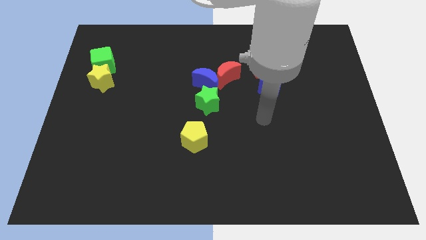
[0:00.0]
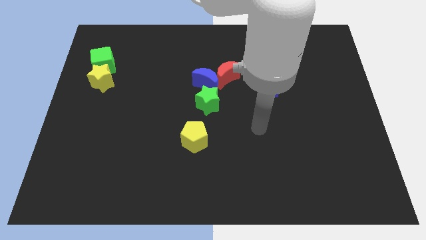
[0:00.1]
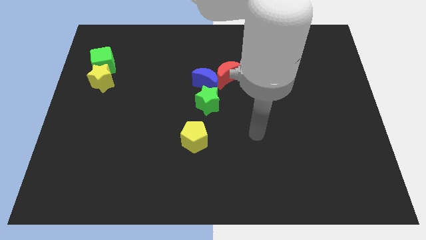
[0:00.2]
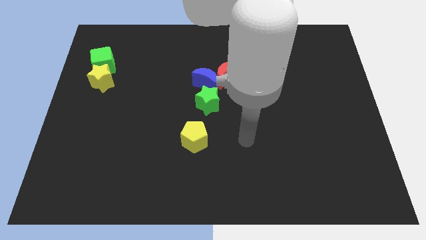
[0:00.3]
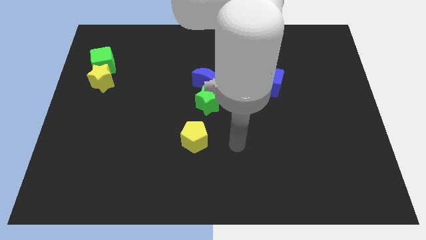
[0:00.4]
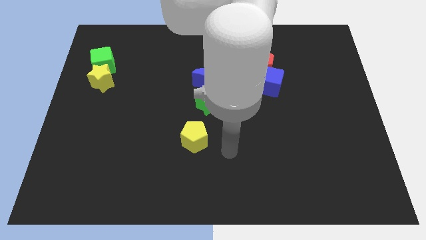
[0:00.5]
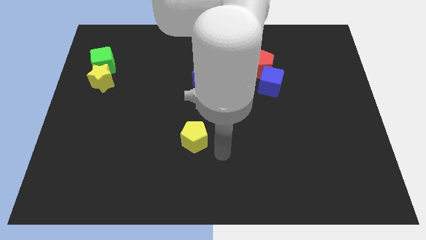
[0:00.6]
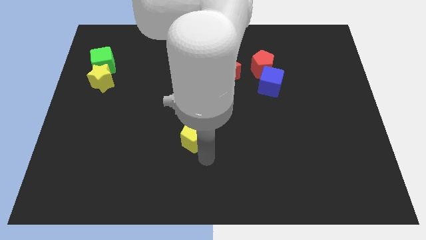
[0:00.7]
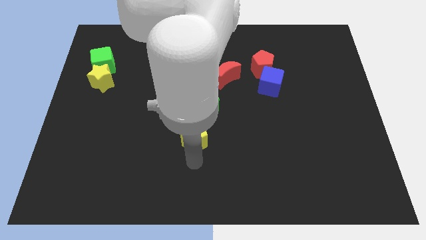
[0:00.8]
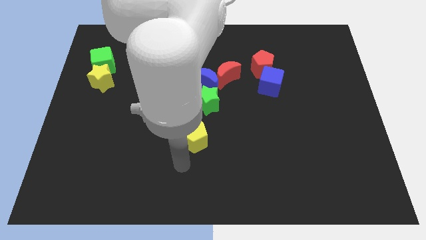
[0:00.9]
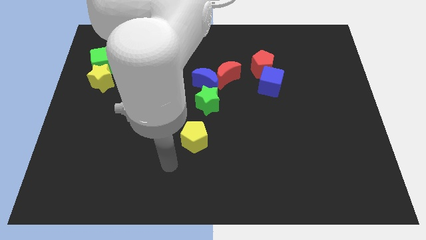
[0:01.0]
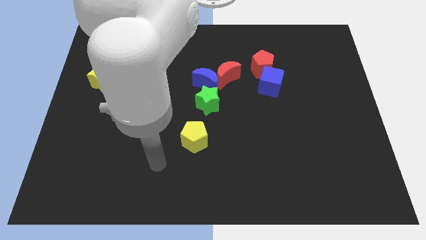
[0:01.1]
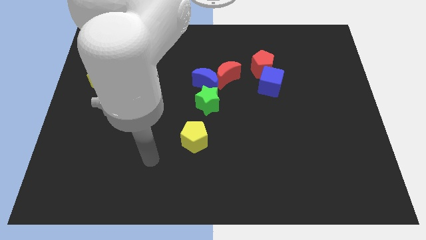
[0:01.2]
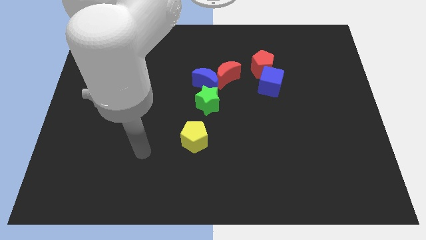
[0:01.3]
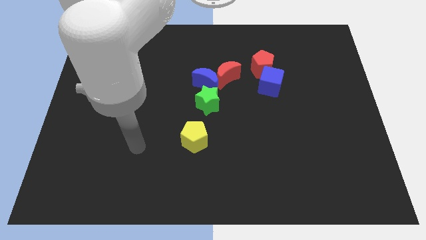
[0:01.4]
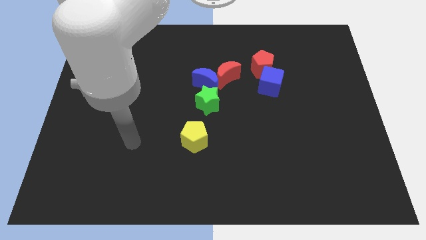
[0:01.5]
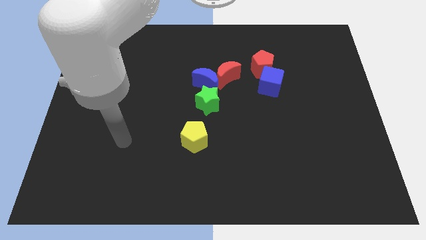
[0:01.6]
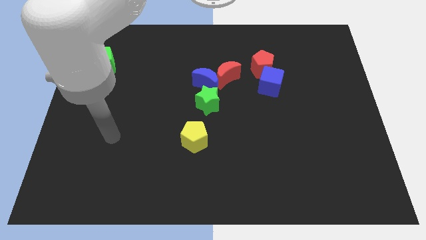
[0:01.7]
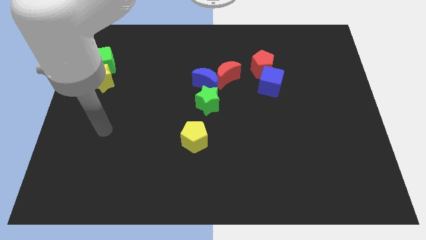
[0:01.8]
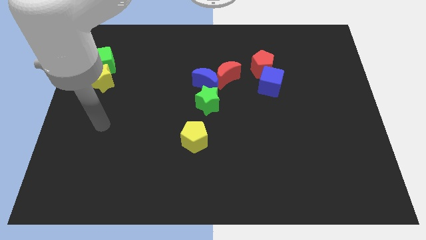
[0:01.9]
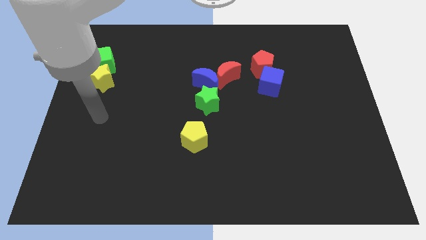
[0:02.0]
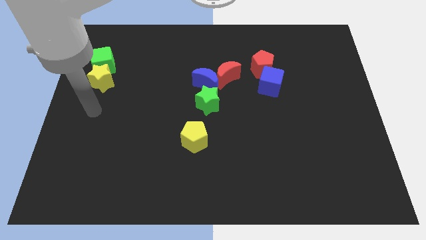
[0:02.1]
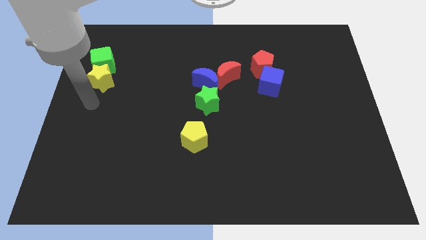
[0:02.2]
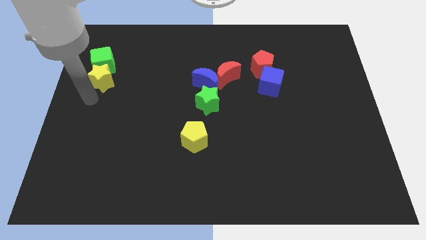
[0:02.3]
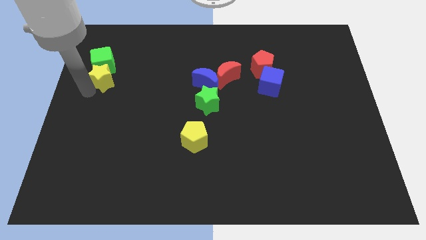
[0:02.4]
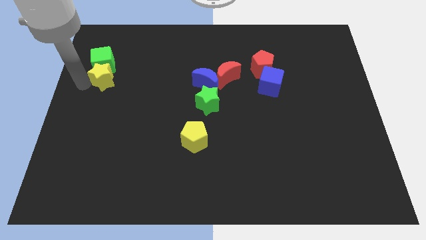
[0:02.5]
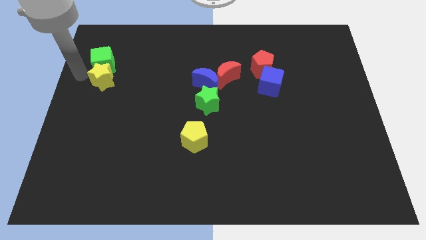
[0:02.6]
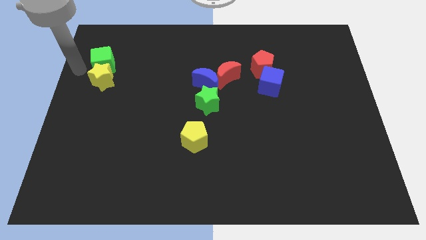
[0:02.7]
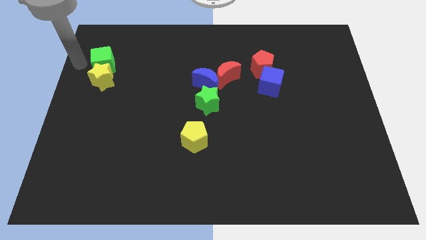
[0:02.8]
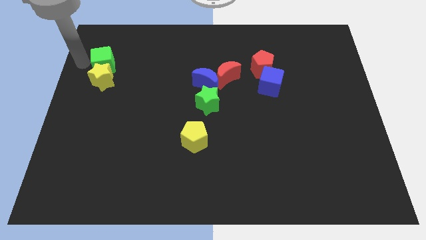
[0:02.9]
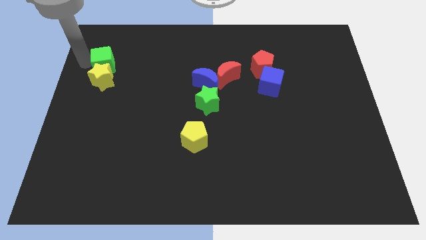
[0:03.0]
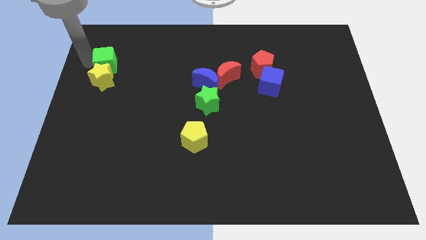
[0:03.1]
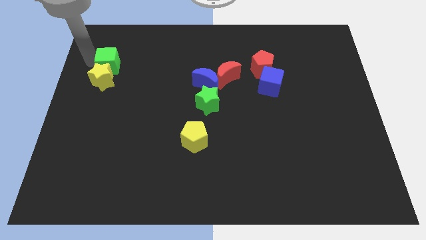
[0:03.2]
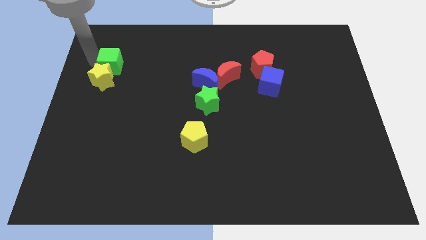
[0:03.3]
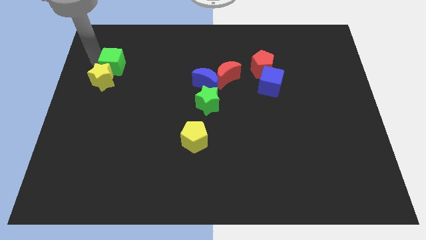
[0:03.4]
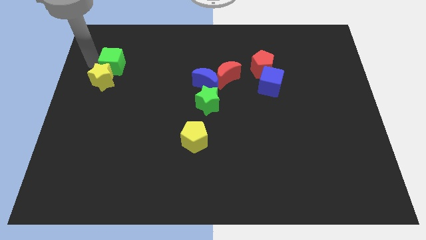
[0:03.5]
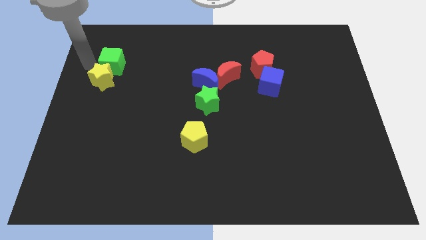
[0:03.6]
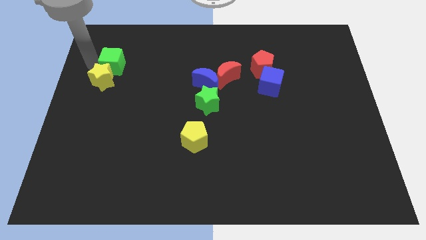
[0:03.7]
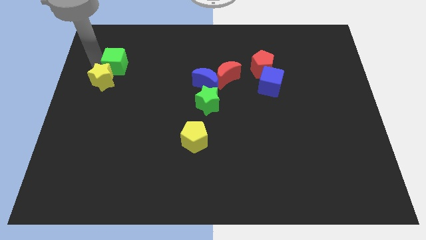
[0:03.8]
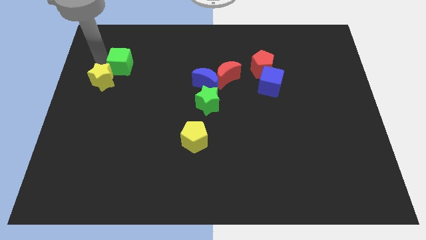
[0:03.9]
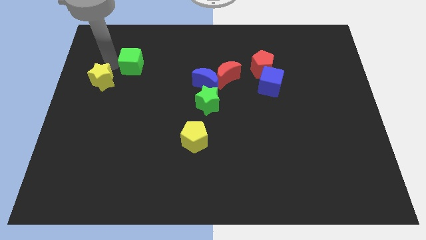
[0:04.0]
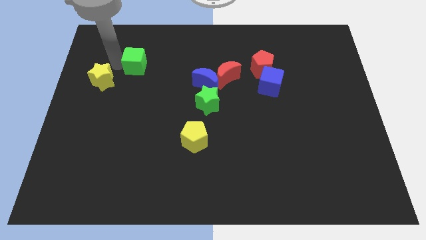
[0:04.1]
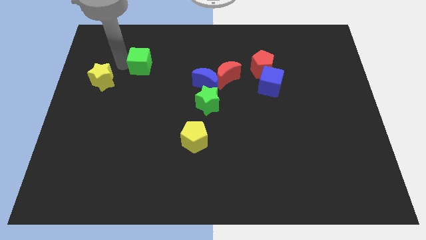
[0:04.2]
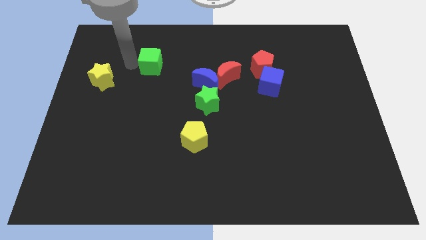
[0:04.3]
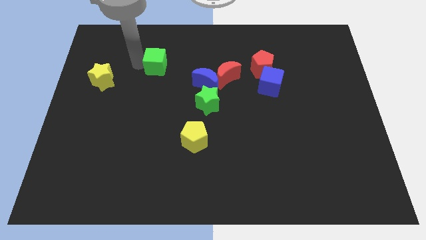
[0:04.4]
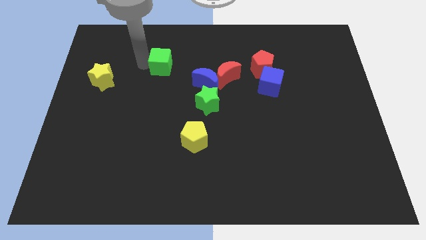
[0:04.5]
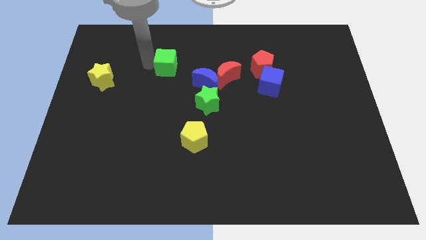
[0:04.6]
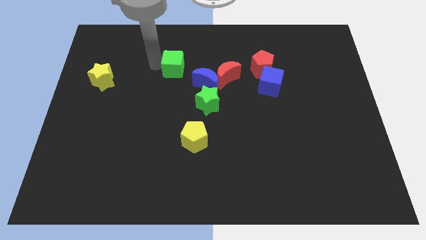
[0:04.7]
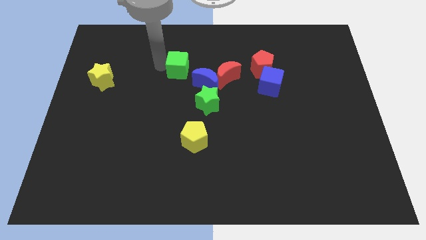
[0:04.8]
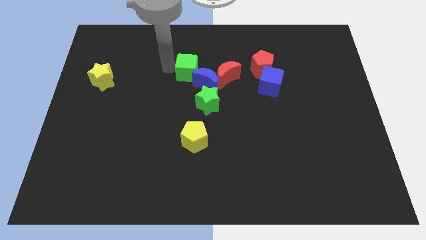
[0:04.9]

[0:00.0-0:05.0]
slide the green cube to the right

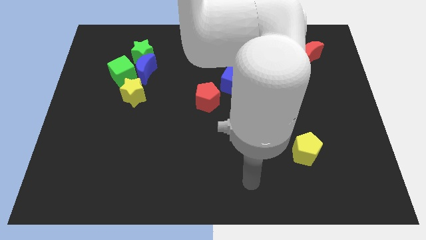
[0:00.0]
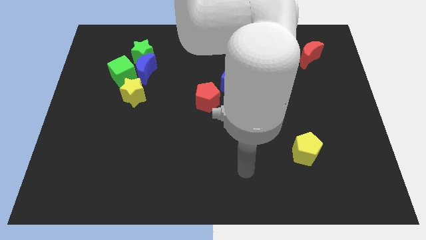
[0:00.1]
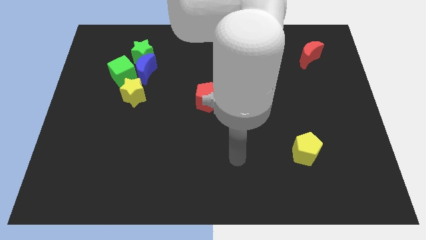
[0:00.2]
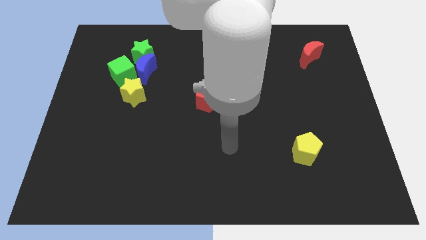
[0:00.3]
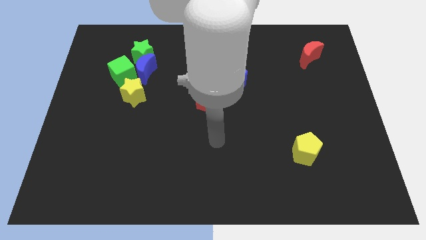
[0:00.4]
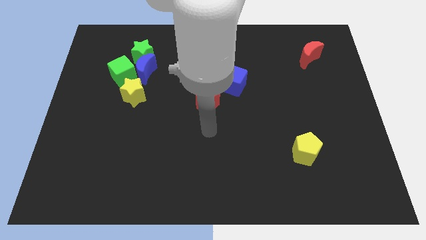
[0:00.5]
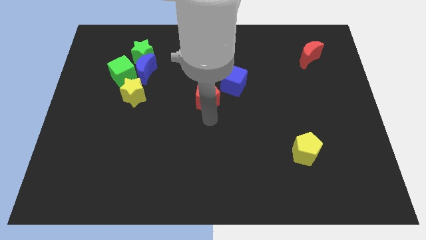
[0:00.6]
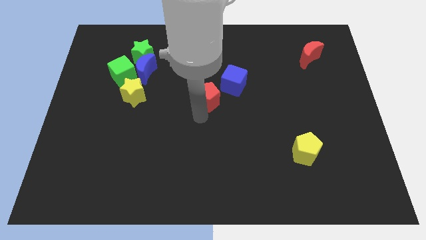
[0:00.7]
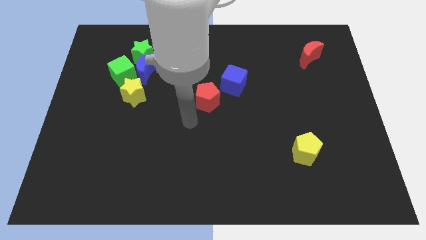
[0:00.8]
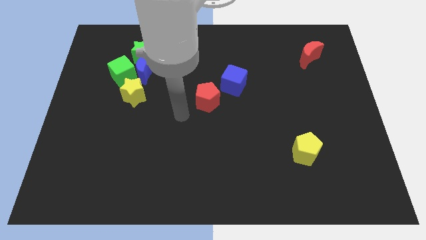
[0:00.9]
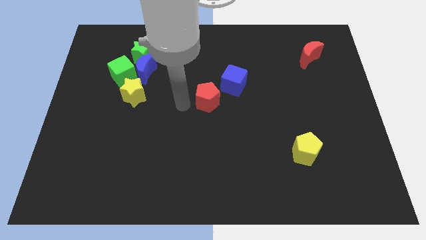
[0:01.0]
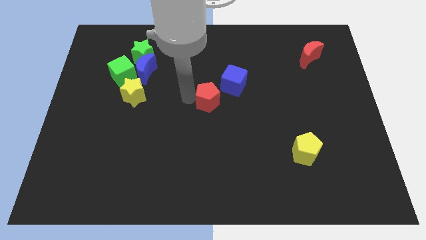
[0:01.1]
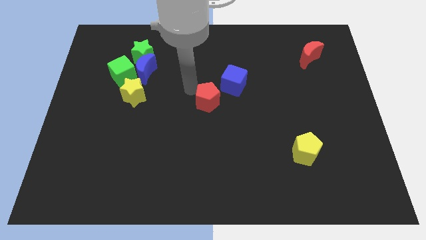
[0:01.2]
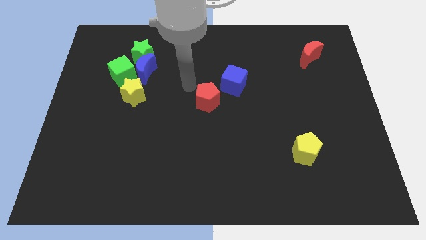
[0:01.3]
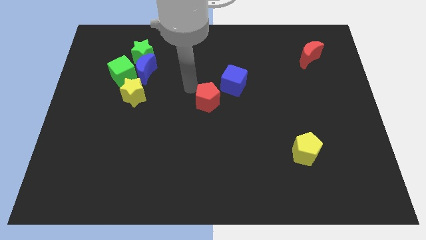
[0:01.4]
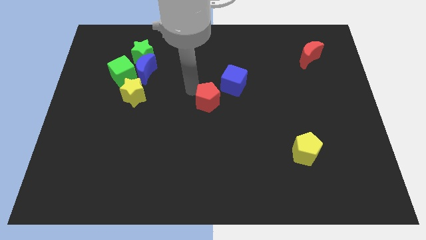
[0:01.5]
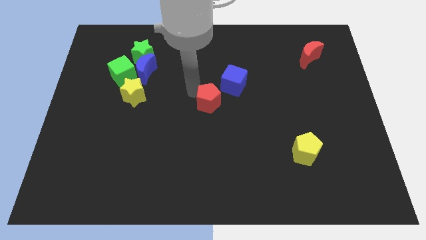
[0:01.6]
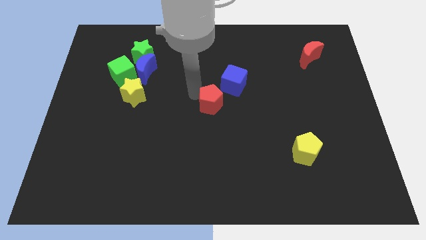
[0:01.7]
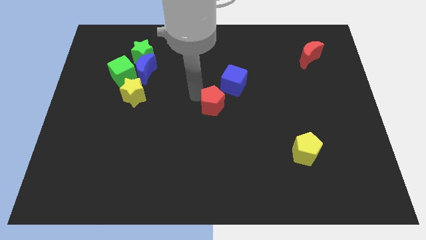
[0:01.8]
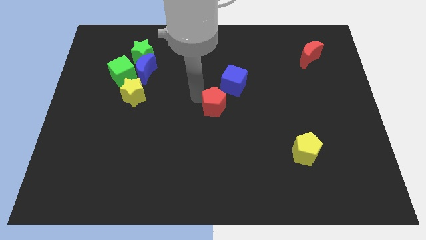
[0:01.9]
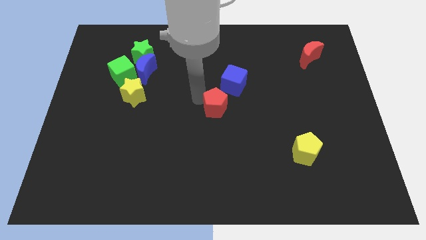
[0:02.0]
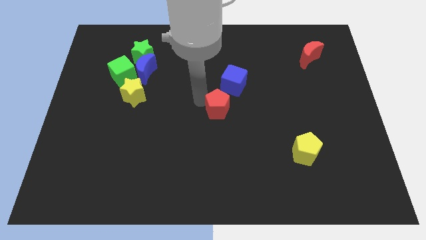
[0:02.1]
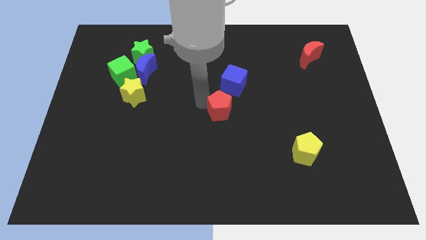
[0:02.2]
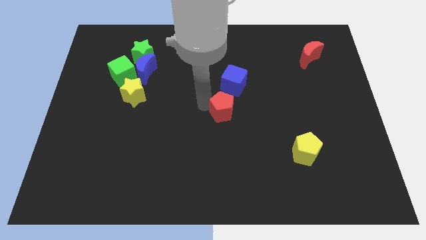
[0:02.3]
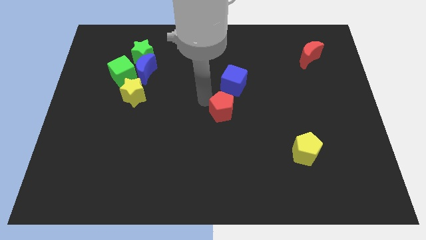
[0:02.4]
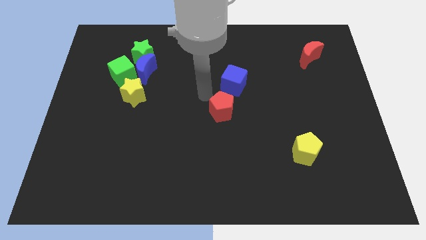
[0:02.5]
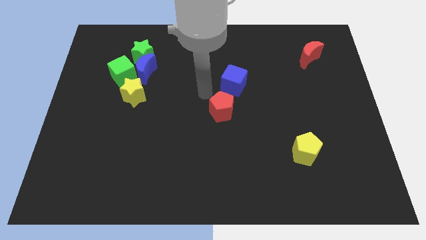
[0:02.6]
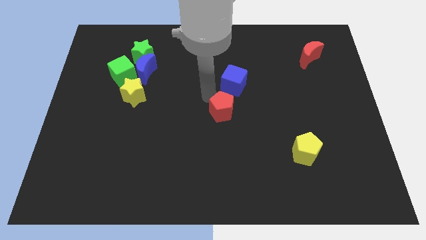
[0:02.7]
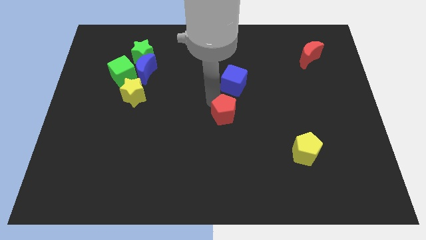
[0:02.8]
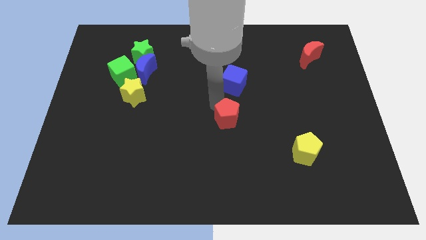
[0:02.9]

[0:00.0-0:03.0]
push the red pentagon a bit downwards and to the right

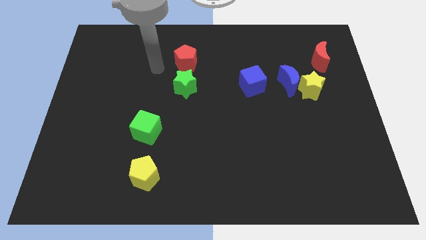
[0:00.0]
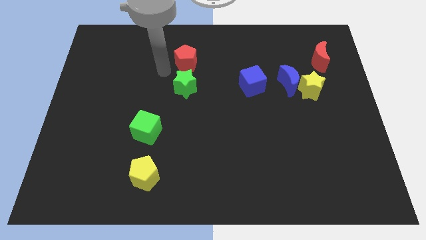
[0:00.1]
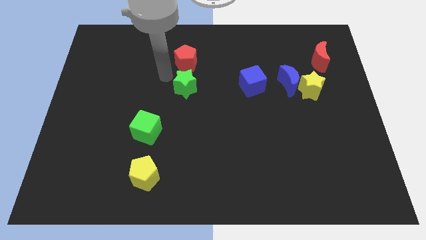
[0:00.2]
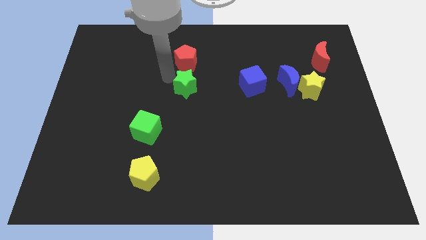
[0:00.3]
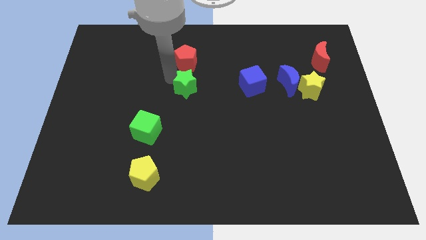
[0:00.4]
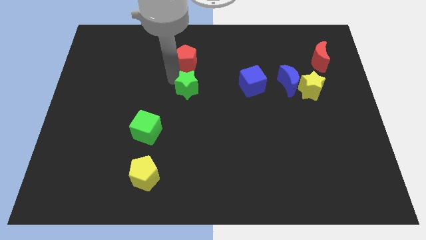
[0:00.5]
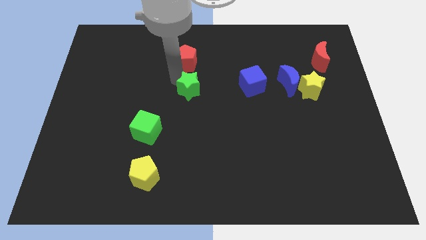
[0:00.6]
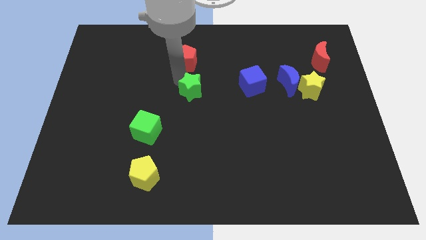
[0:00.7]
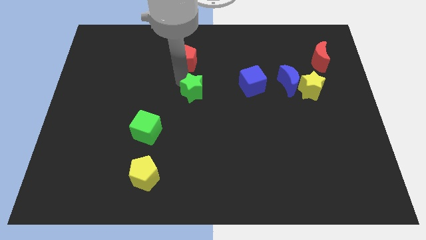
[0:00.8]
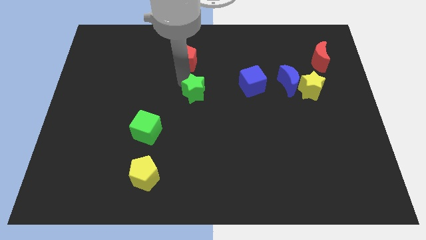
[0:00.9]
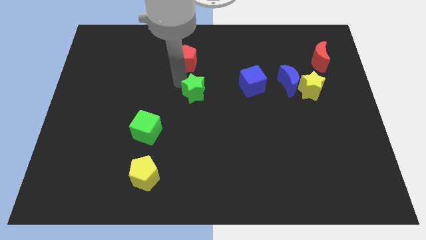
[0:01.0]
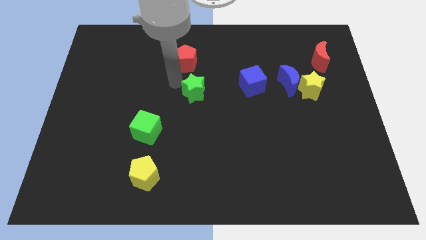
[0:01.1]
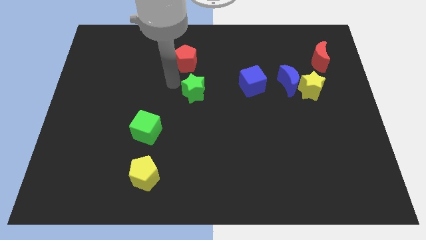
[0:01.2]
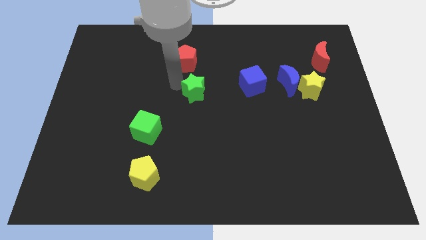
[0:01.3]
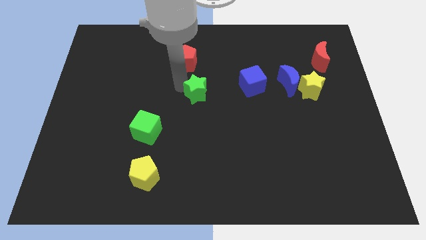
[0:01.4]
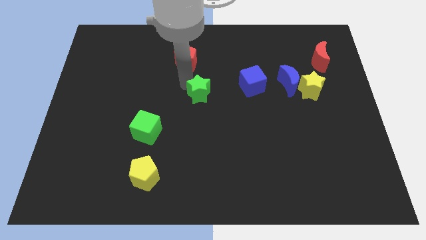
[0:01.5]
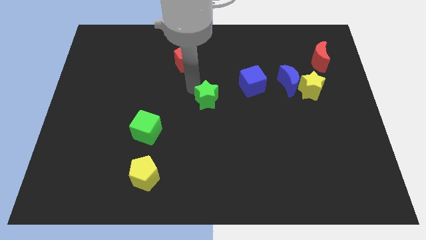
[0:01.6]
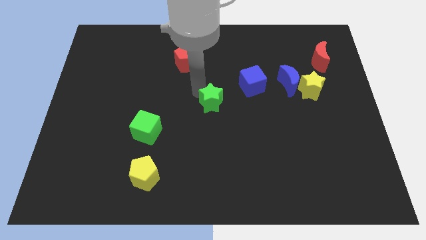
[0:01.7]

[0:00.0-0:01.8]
push the green star down and right a bit
